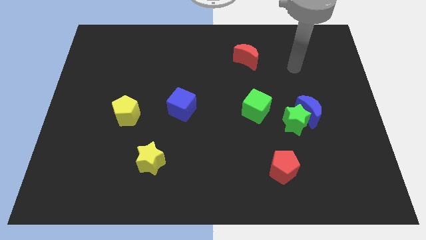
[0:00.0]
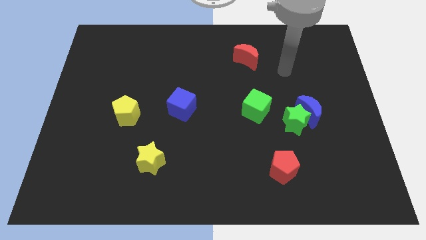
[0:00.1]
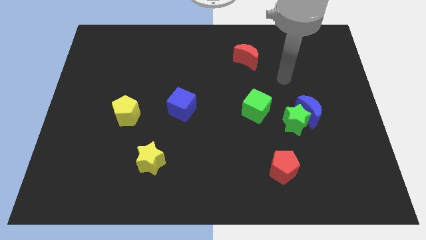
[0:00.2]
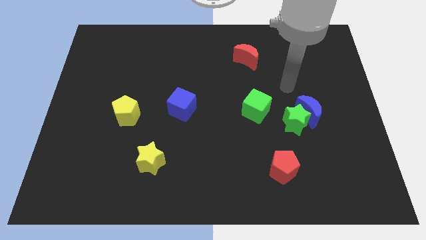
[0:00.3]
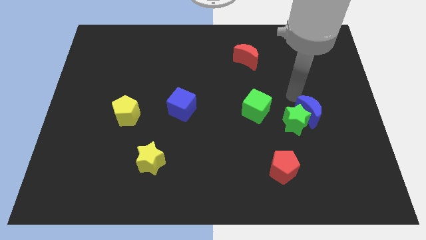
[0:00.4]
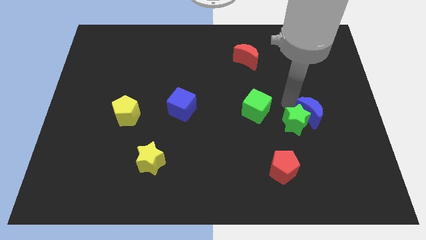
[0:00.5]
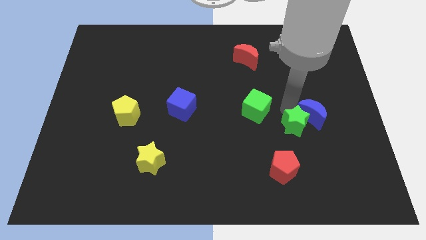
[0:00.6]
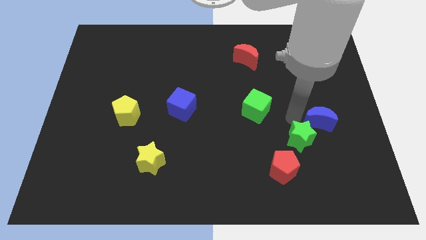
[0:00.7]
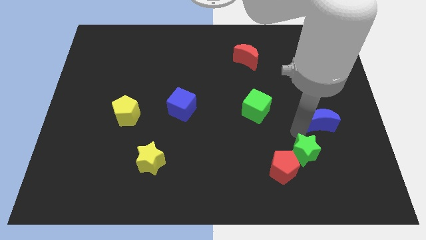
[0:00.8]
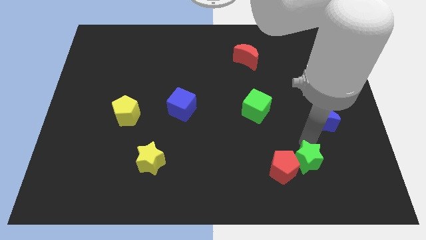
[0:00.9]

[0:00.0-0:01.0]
move the blue moon away from the green star

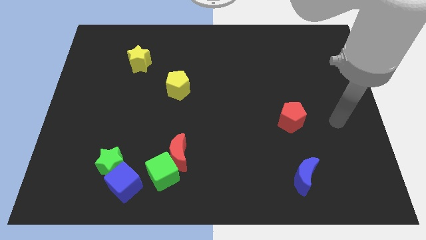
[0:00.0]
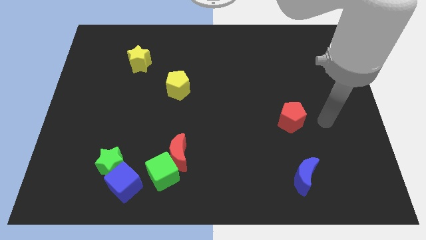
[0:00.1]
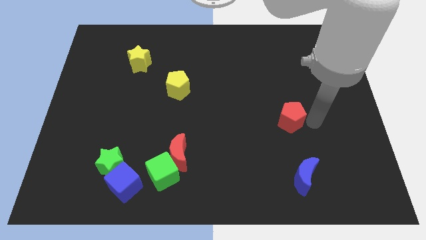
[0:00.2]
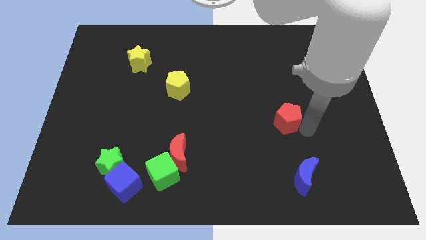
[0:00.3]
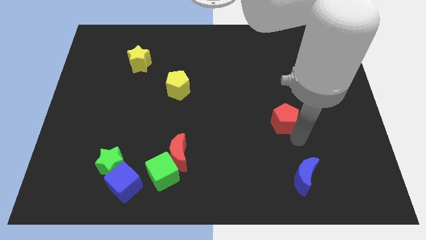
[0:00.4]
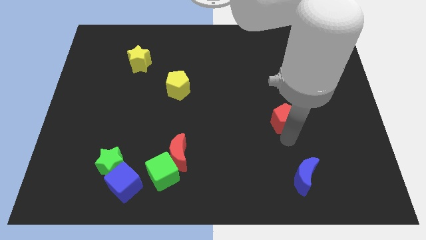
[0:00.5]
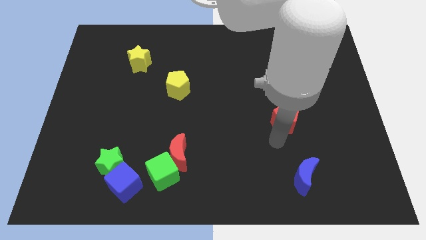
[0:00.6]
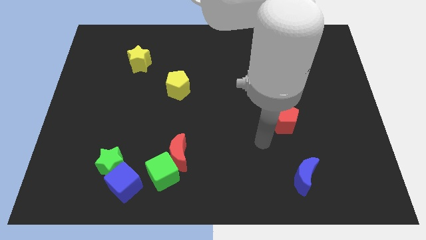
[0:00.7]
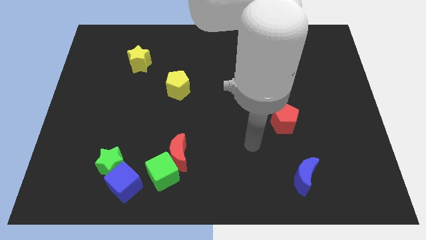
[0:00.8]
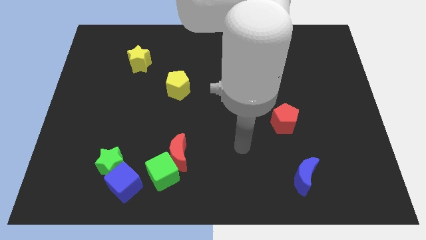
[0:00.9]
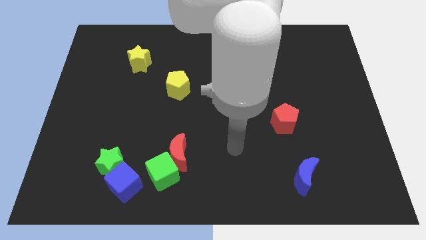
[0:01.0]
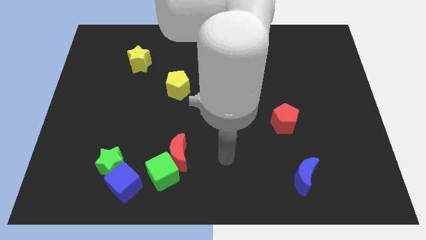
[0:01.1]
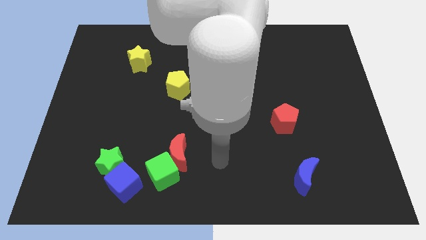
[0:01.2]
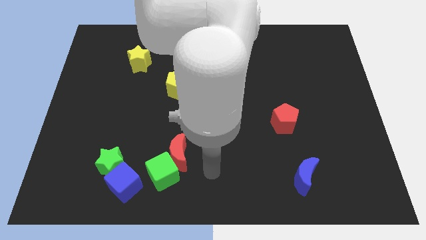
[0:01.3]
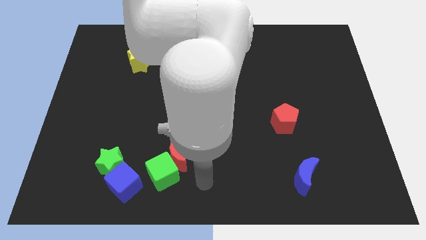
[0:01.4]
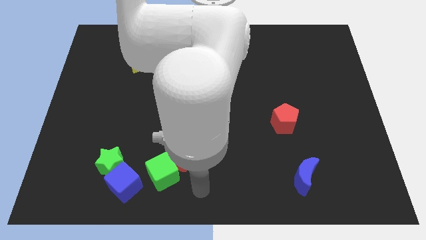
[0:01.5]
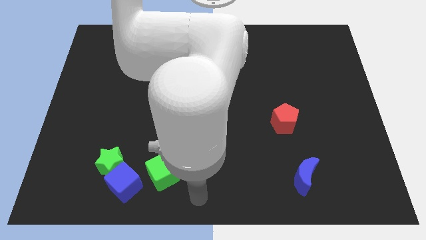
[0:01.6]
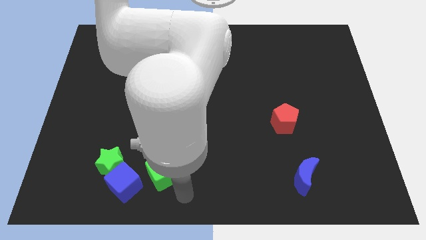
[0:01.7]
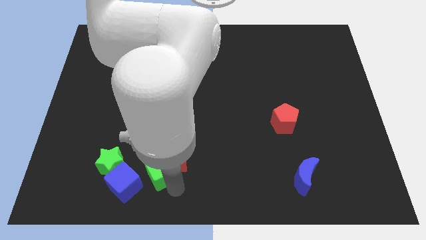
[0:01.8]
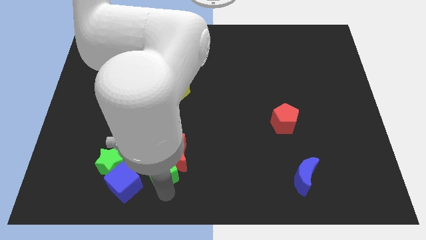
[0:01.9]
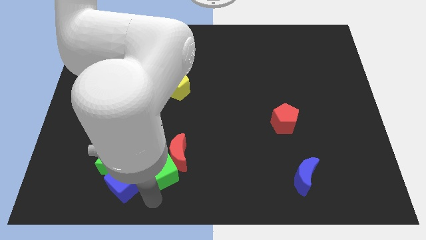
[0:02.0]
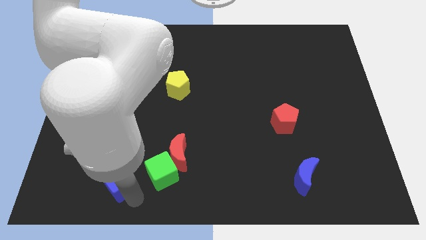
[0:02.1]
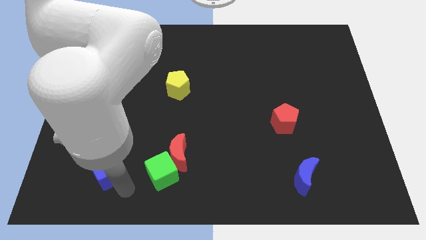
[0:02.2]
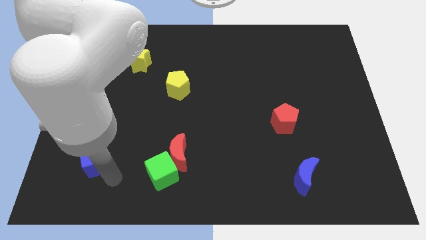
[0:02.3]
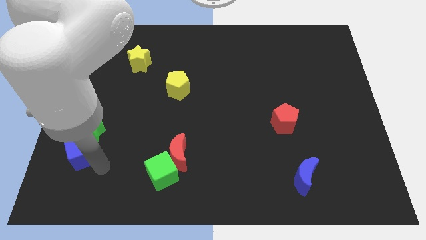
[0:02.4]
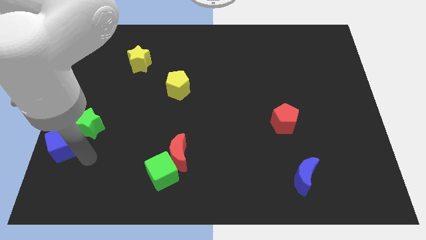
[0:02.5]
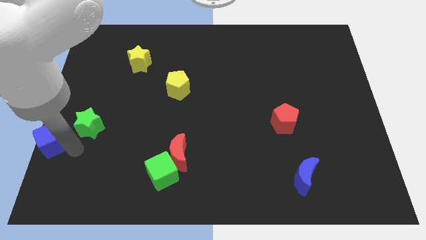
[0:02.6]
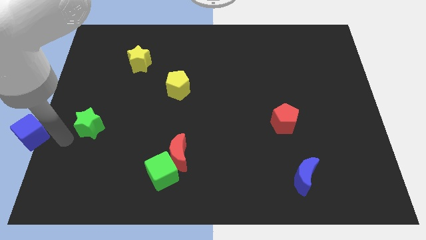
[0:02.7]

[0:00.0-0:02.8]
move the green star away from the blue cube

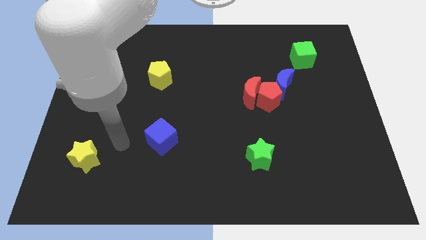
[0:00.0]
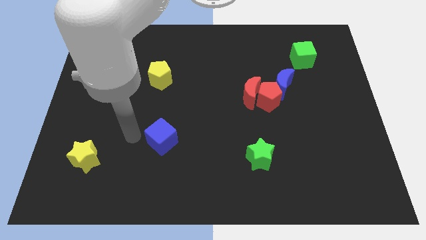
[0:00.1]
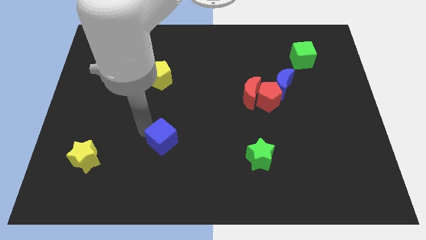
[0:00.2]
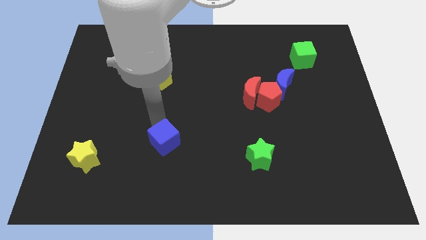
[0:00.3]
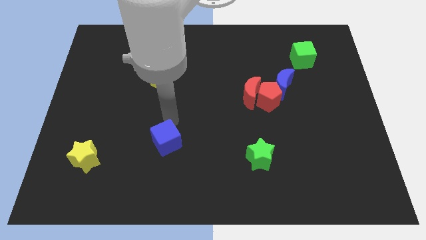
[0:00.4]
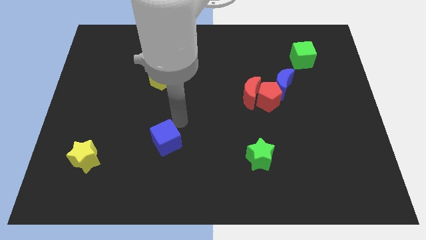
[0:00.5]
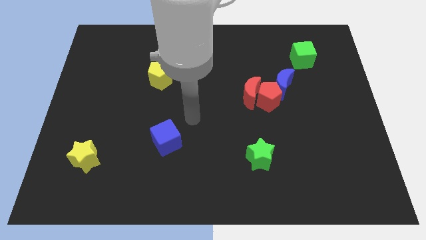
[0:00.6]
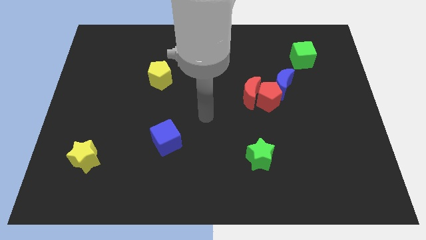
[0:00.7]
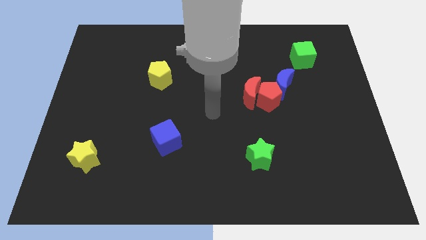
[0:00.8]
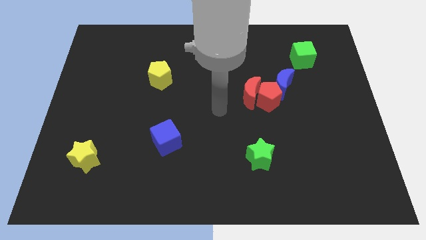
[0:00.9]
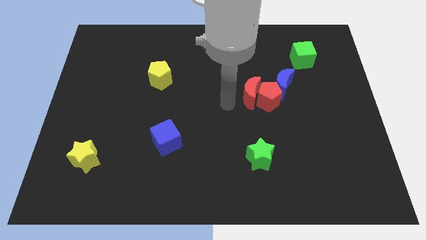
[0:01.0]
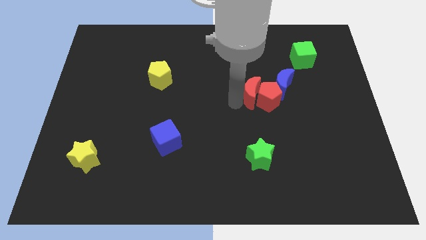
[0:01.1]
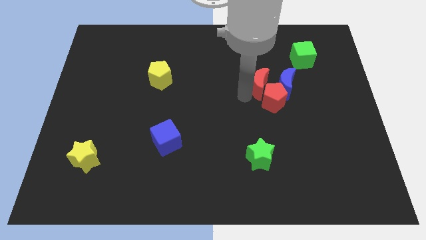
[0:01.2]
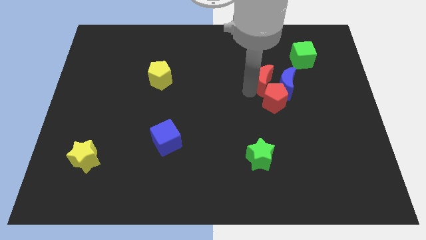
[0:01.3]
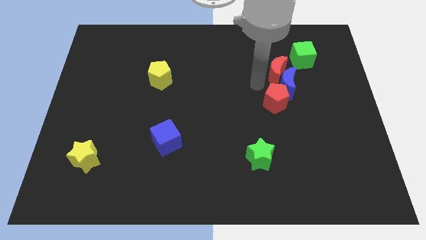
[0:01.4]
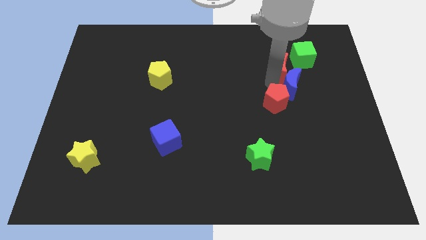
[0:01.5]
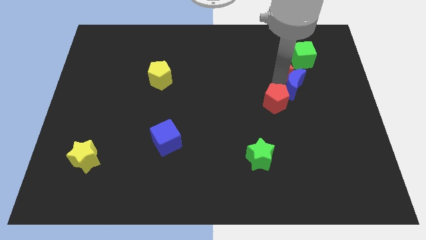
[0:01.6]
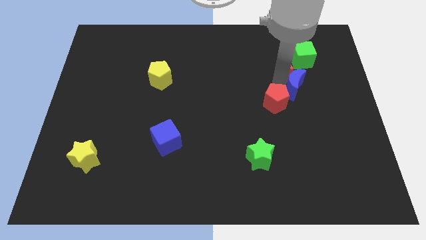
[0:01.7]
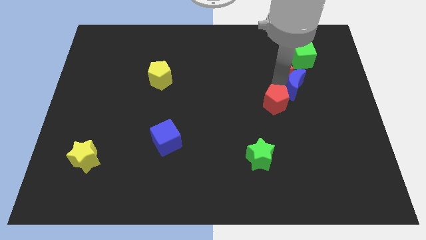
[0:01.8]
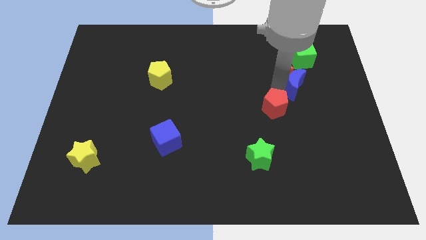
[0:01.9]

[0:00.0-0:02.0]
separate the red pentagon from the red moon and blue moon

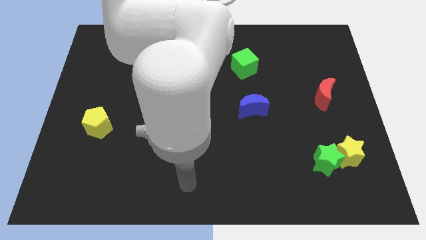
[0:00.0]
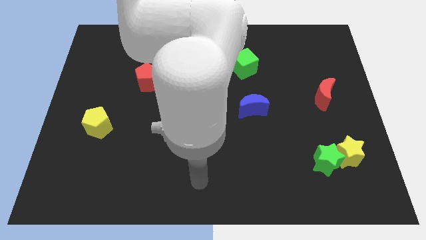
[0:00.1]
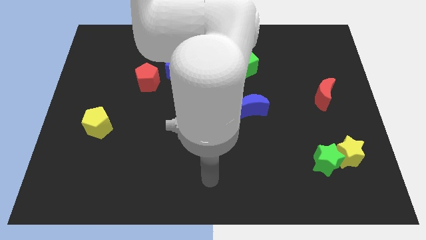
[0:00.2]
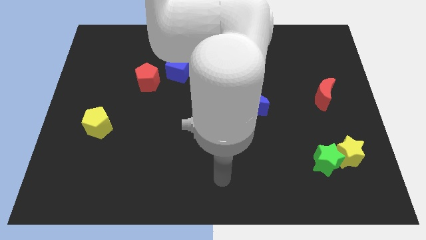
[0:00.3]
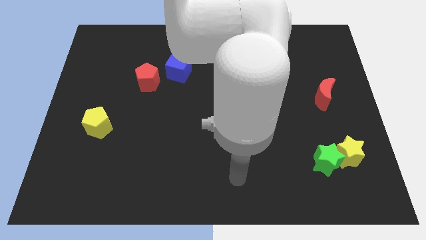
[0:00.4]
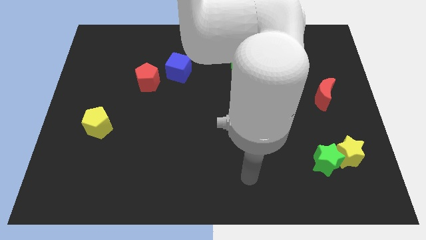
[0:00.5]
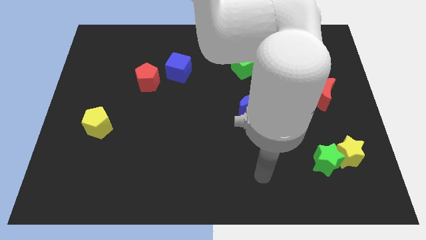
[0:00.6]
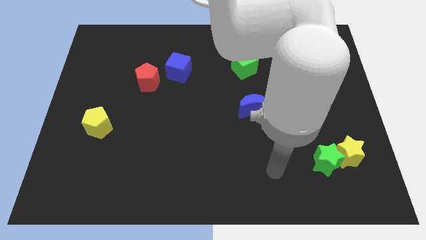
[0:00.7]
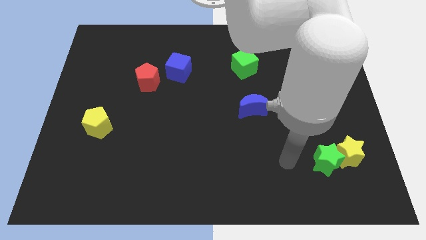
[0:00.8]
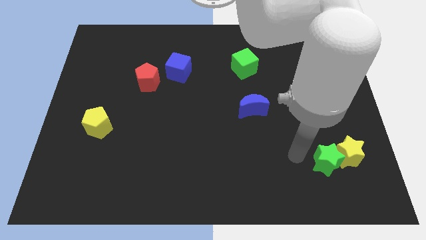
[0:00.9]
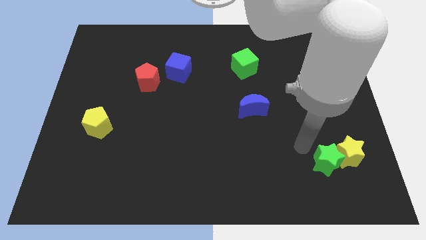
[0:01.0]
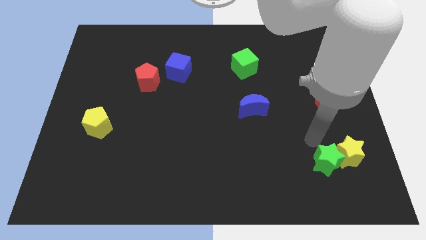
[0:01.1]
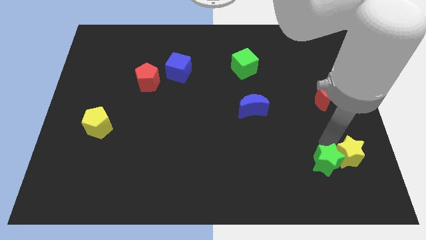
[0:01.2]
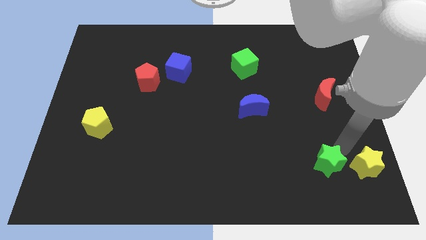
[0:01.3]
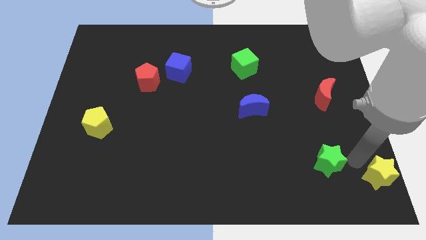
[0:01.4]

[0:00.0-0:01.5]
pull the green star apart from the yellow star

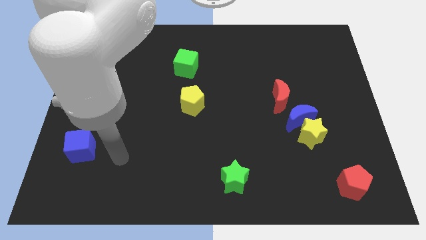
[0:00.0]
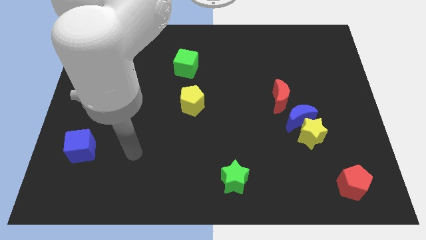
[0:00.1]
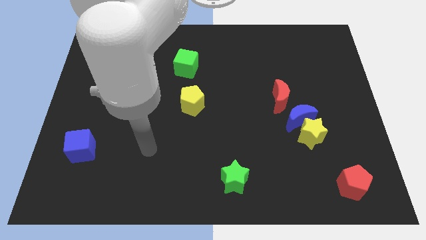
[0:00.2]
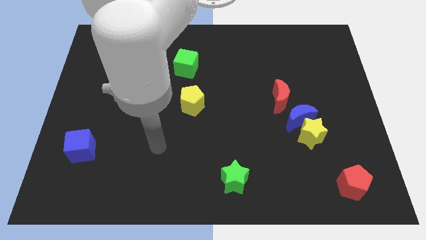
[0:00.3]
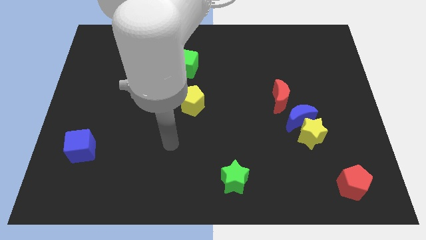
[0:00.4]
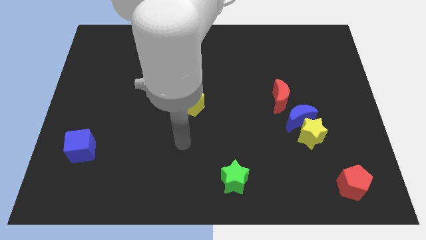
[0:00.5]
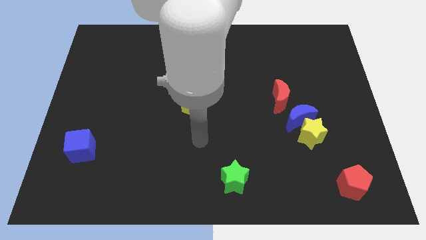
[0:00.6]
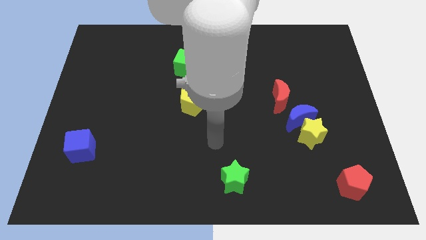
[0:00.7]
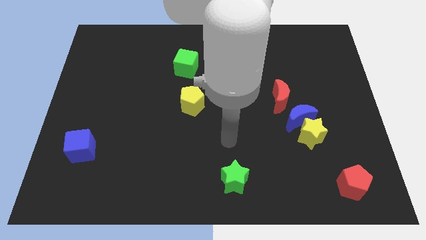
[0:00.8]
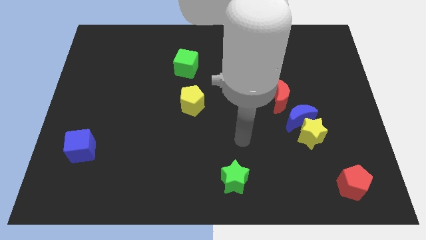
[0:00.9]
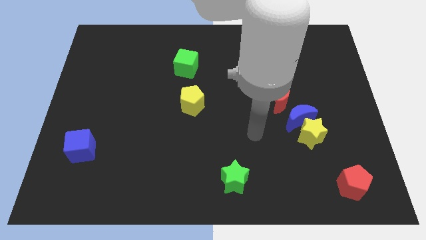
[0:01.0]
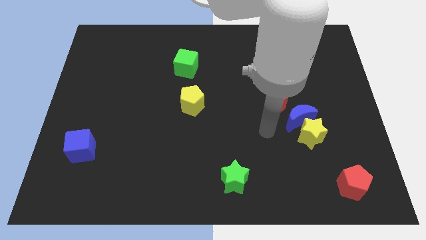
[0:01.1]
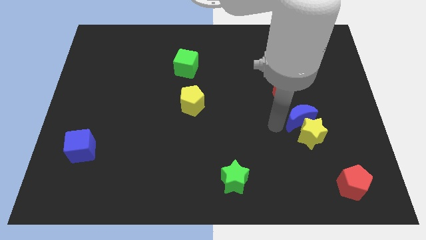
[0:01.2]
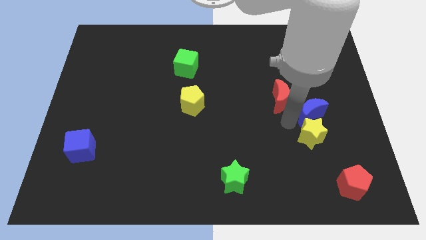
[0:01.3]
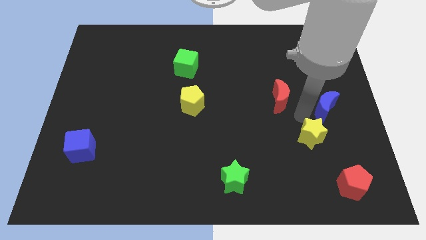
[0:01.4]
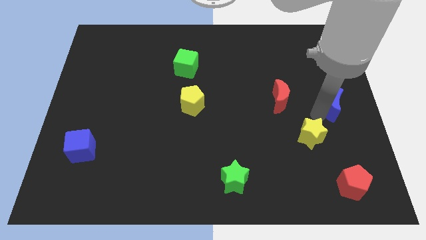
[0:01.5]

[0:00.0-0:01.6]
move the yellow star away from the blue moon

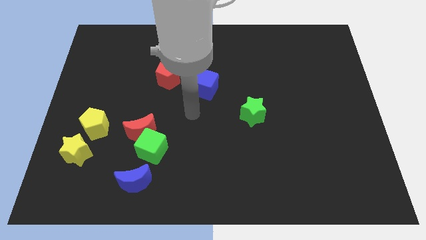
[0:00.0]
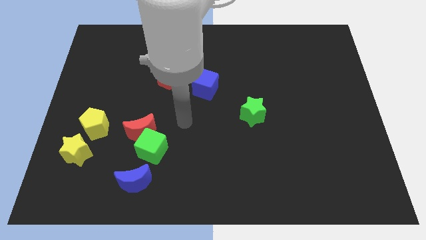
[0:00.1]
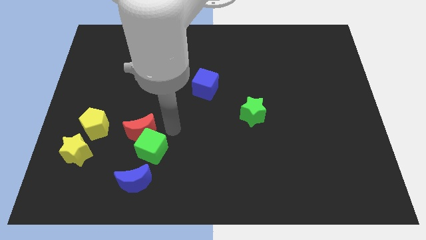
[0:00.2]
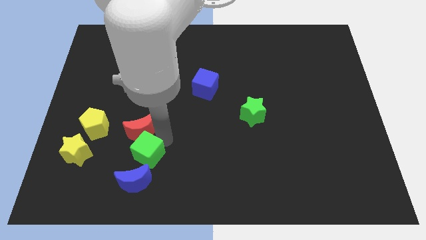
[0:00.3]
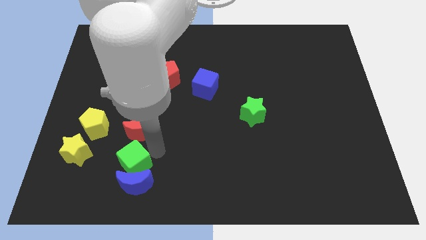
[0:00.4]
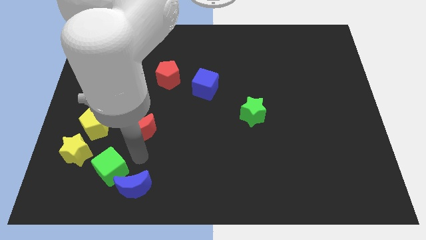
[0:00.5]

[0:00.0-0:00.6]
pull the red moon apart from the green cube

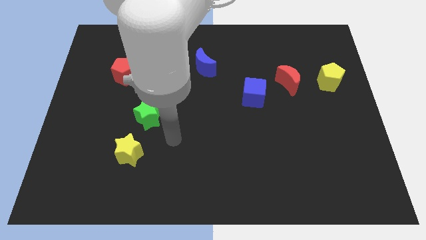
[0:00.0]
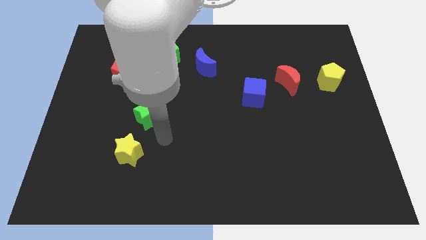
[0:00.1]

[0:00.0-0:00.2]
move the green star away from the yellow star
